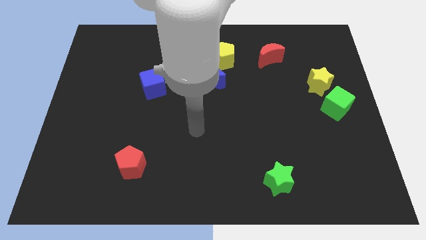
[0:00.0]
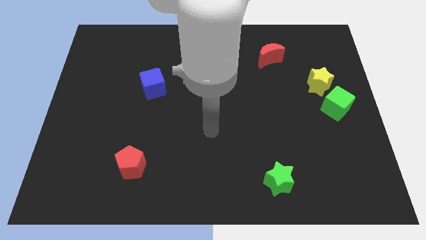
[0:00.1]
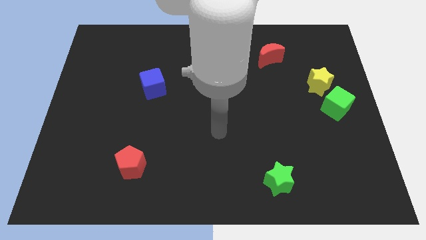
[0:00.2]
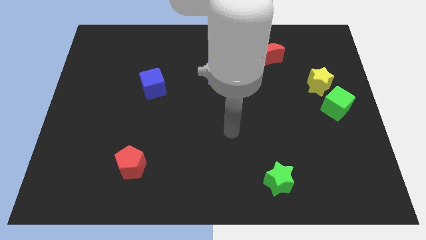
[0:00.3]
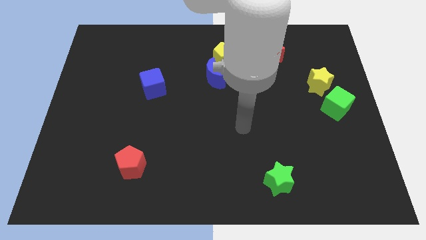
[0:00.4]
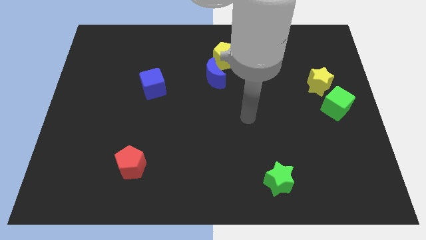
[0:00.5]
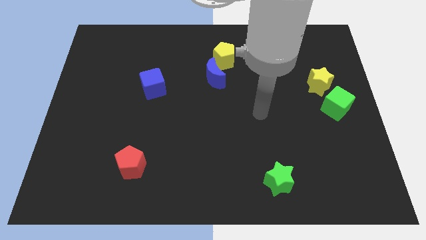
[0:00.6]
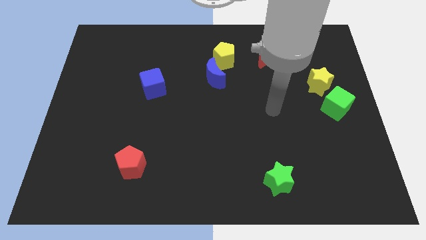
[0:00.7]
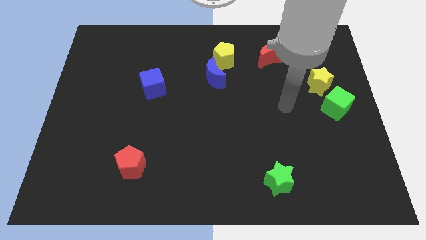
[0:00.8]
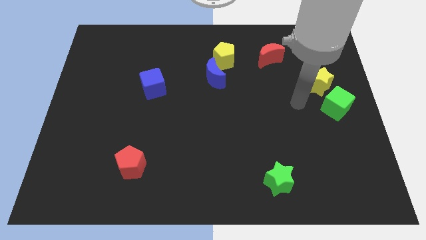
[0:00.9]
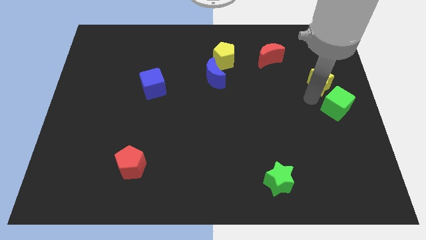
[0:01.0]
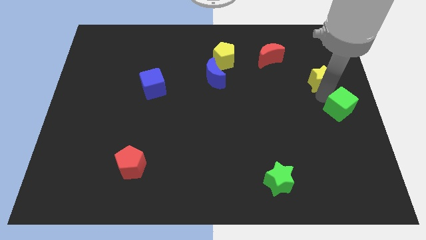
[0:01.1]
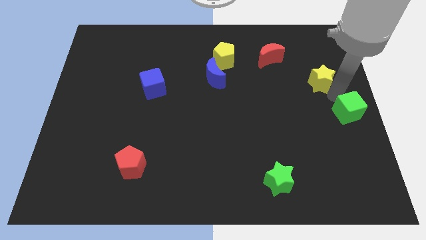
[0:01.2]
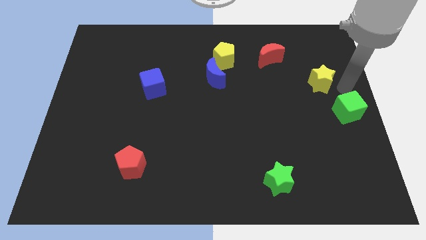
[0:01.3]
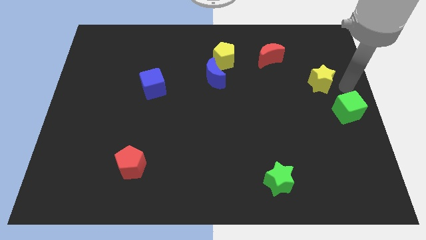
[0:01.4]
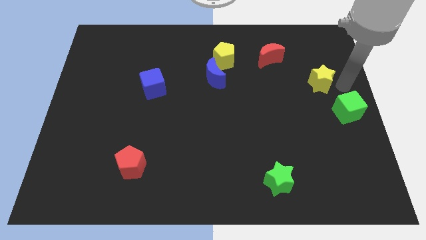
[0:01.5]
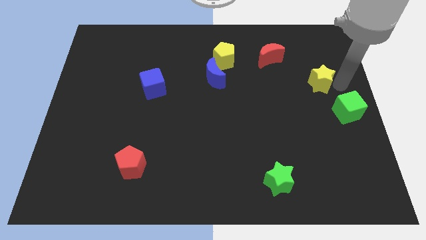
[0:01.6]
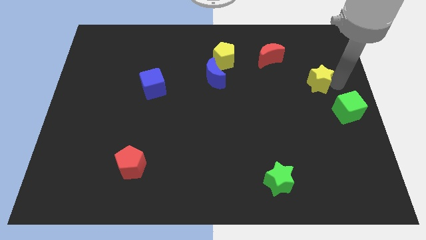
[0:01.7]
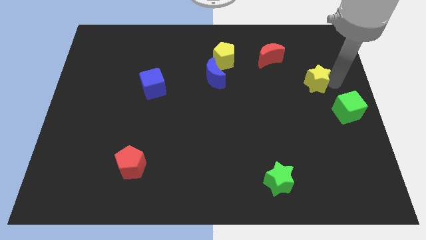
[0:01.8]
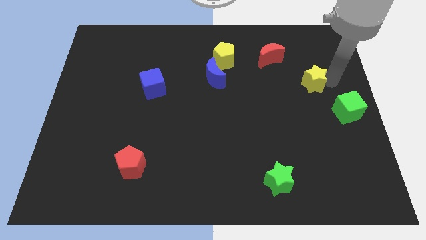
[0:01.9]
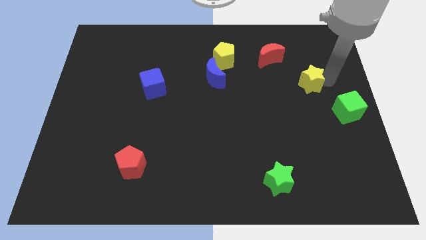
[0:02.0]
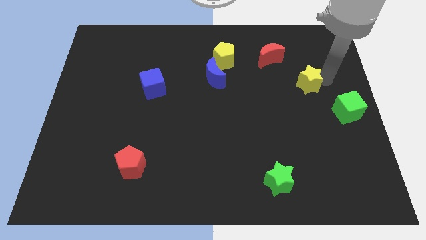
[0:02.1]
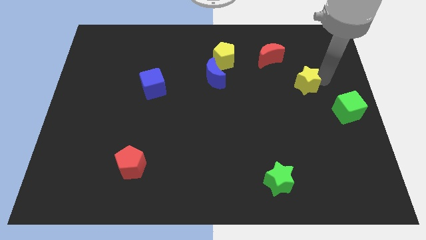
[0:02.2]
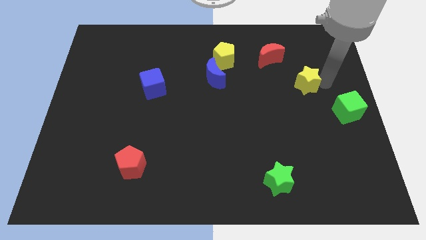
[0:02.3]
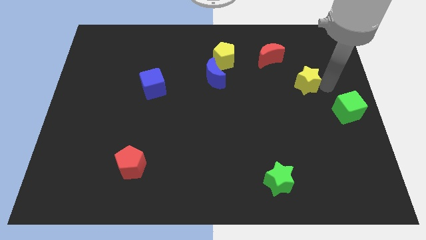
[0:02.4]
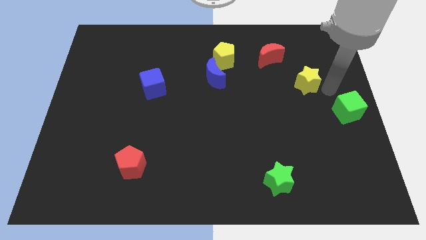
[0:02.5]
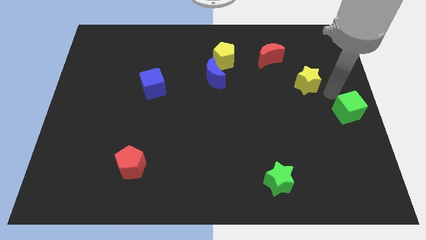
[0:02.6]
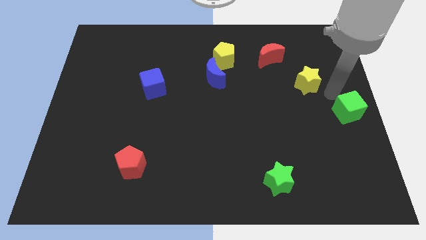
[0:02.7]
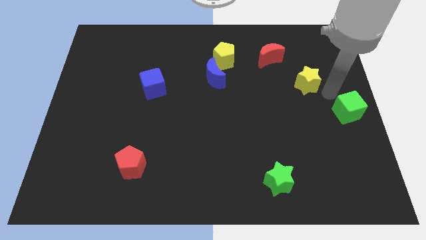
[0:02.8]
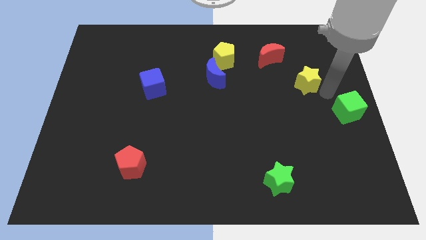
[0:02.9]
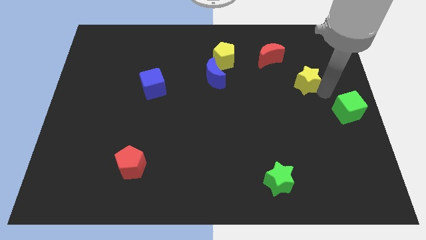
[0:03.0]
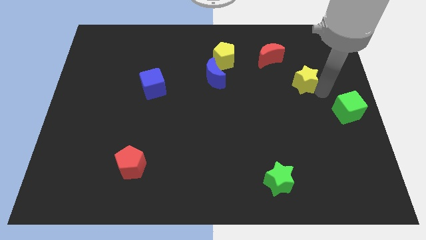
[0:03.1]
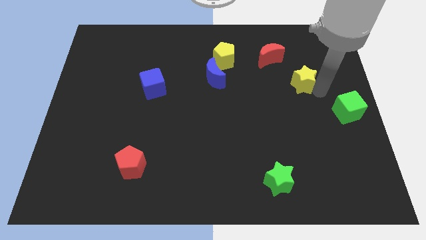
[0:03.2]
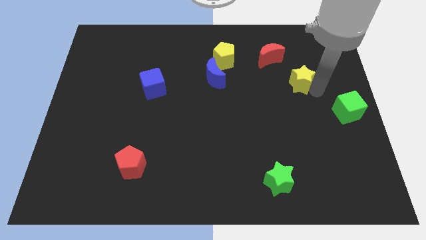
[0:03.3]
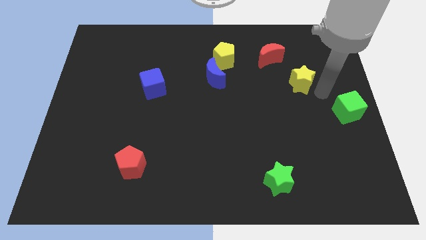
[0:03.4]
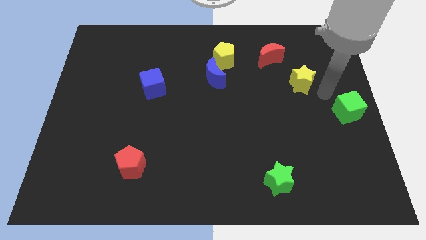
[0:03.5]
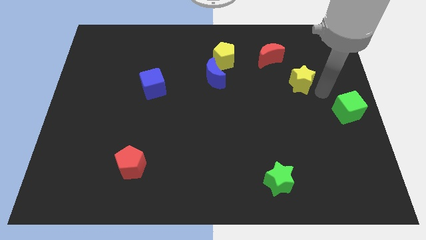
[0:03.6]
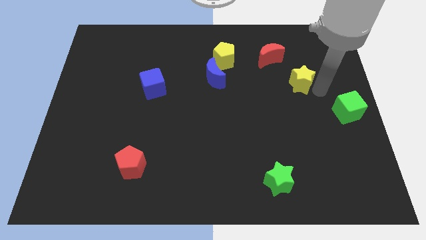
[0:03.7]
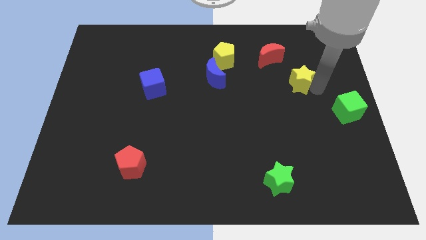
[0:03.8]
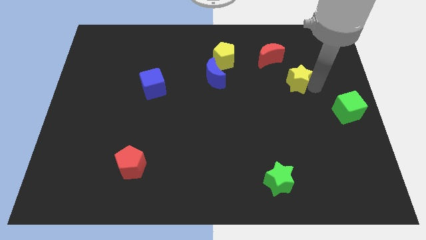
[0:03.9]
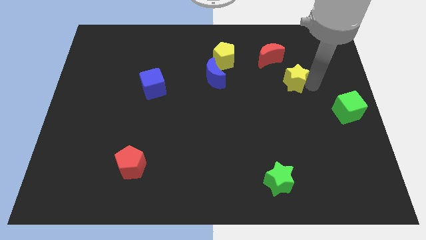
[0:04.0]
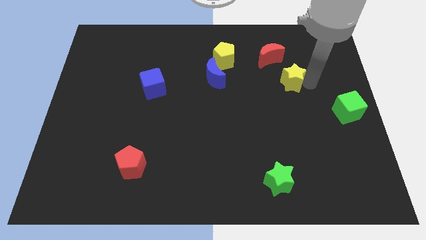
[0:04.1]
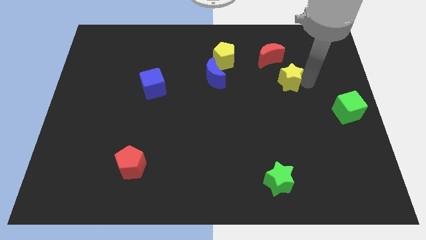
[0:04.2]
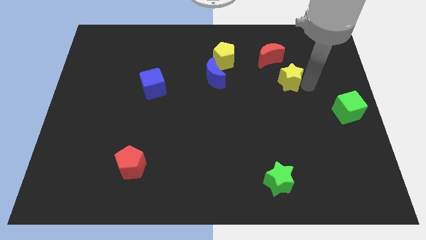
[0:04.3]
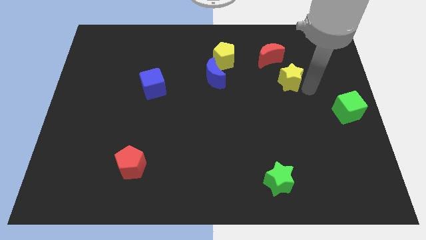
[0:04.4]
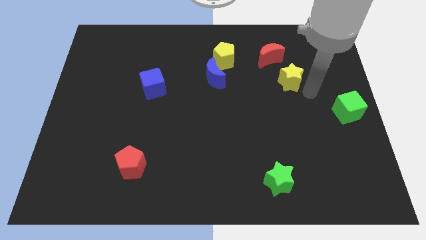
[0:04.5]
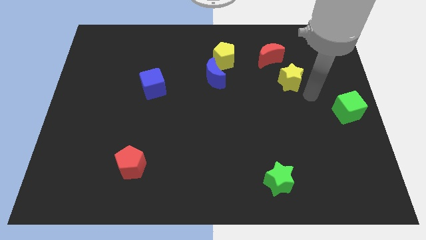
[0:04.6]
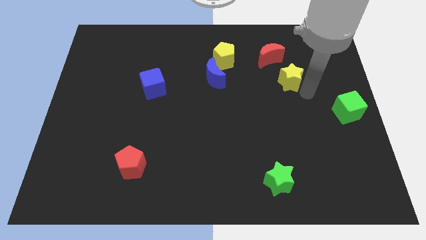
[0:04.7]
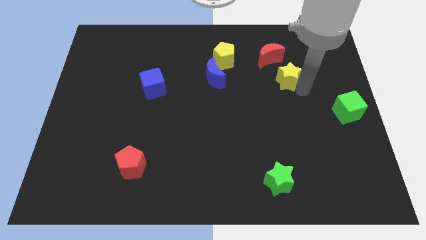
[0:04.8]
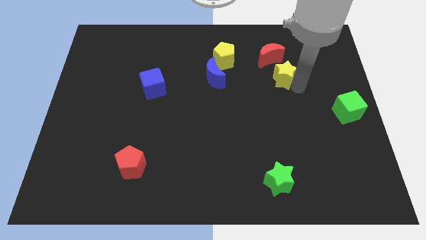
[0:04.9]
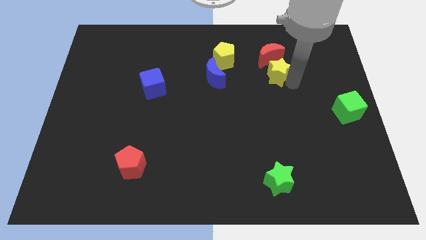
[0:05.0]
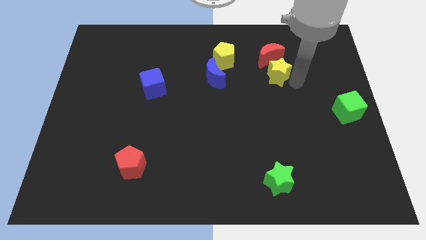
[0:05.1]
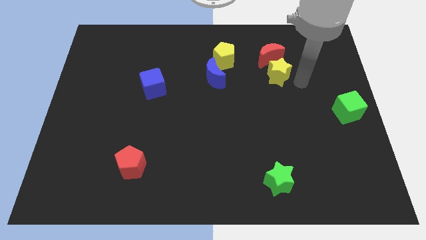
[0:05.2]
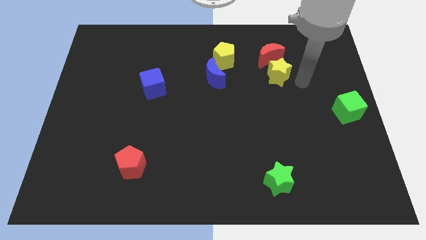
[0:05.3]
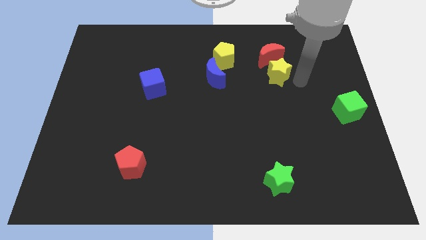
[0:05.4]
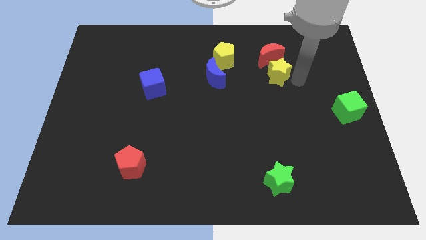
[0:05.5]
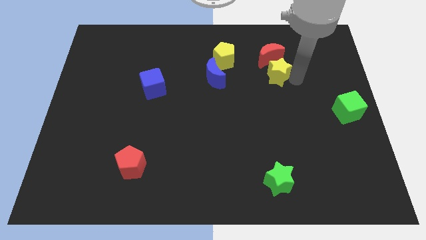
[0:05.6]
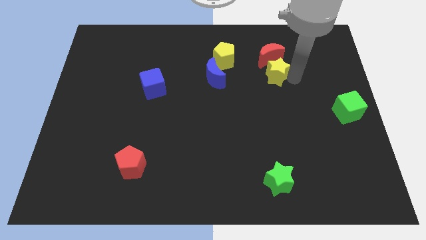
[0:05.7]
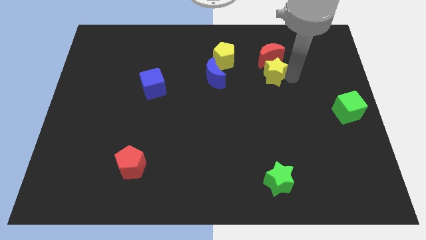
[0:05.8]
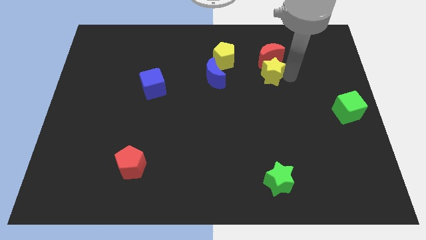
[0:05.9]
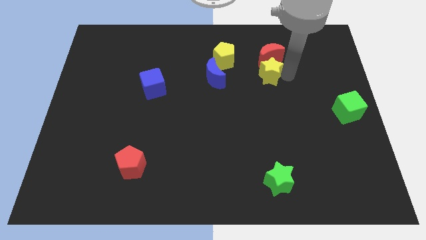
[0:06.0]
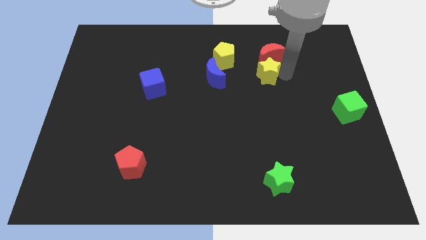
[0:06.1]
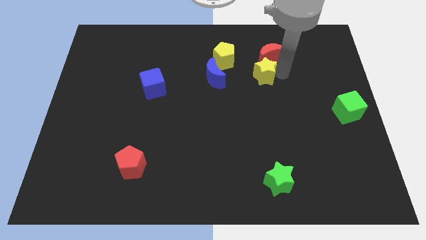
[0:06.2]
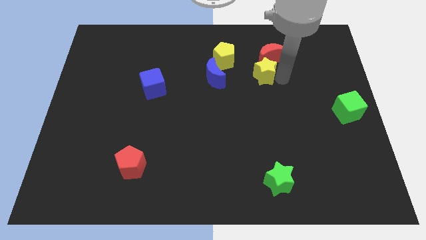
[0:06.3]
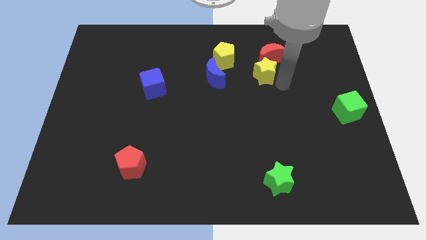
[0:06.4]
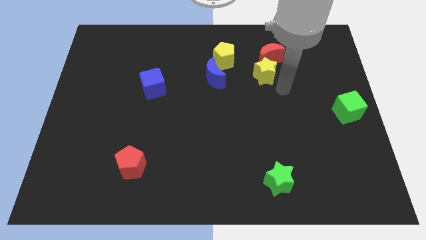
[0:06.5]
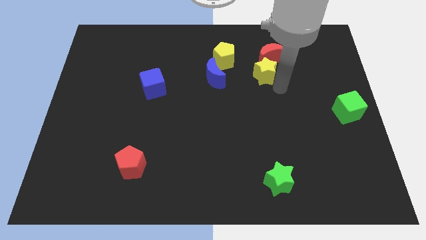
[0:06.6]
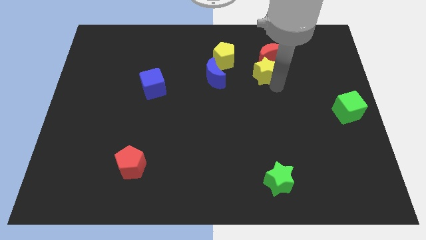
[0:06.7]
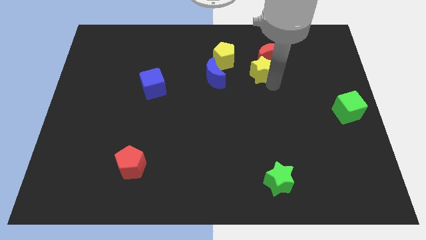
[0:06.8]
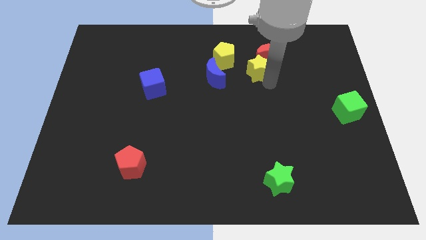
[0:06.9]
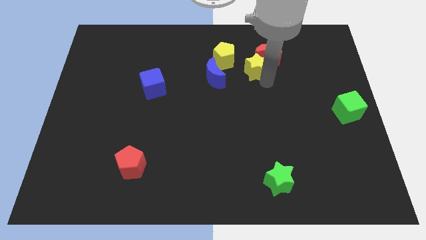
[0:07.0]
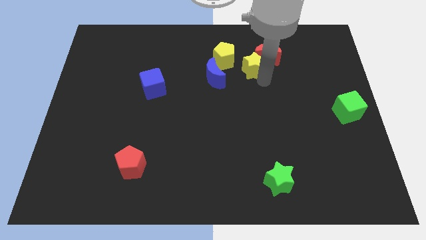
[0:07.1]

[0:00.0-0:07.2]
slide the yellow star to the left of the red moon
